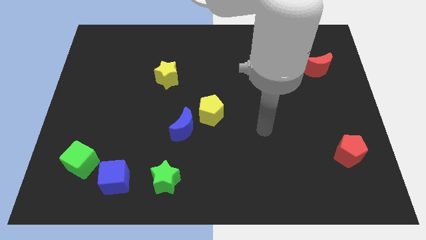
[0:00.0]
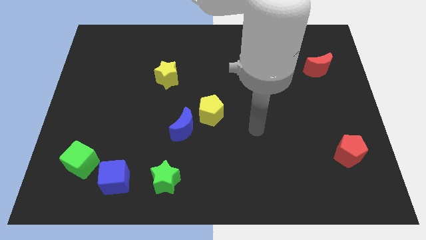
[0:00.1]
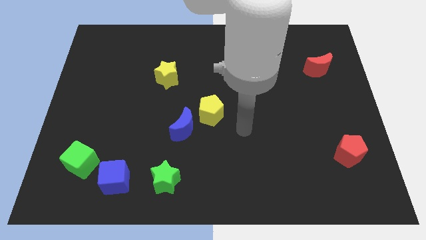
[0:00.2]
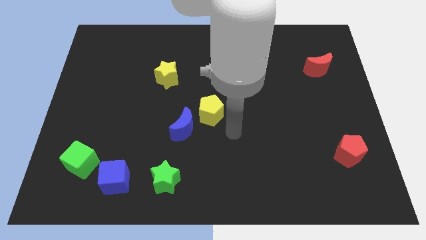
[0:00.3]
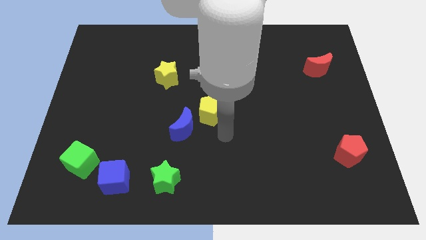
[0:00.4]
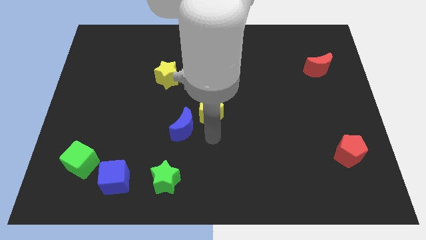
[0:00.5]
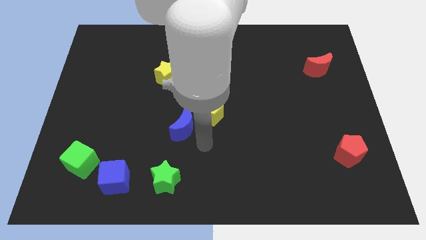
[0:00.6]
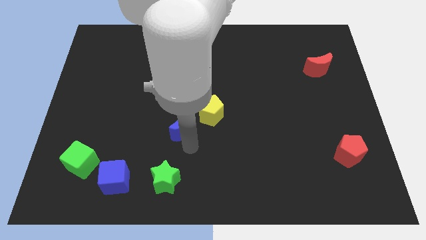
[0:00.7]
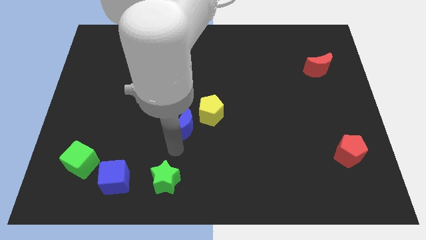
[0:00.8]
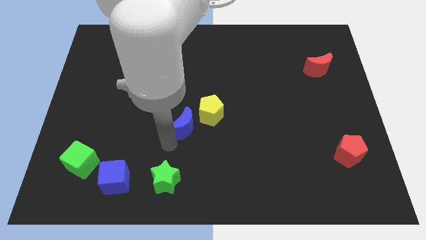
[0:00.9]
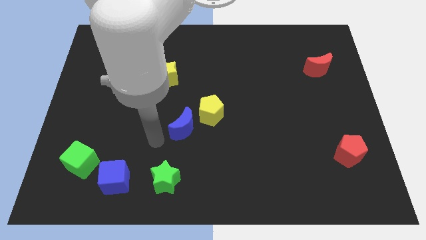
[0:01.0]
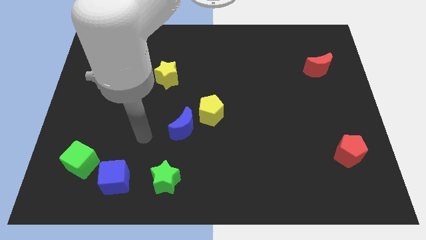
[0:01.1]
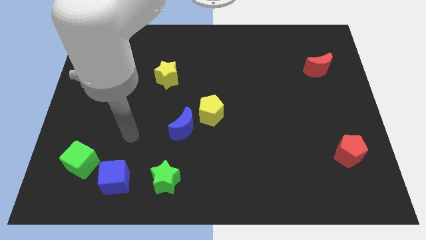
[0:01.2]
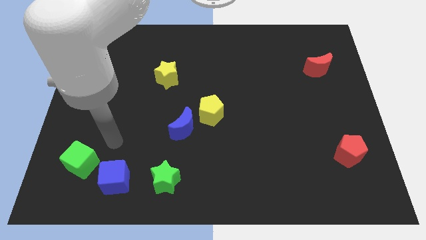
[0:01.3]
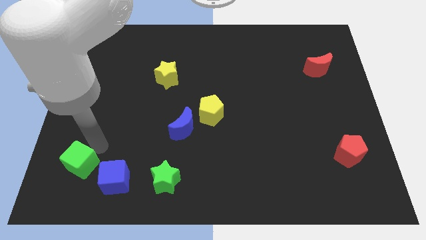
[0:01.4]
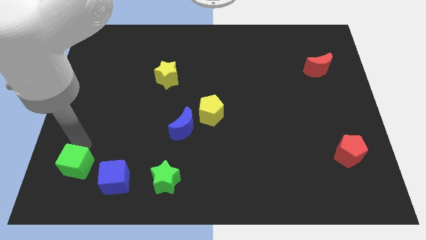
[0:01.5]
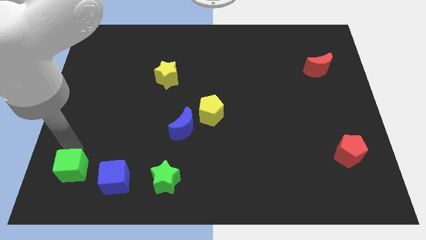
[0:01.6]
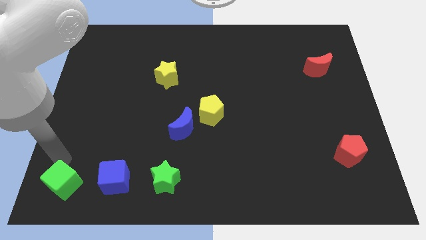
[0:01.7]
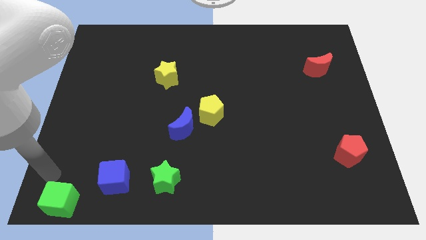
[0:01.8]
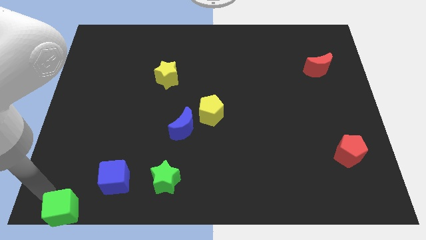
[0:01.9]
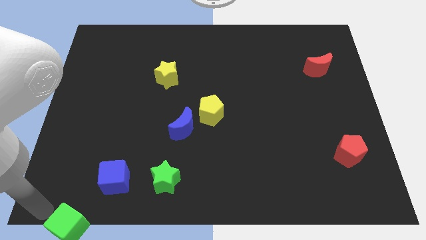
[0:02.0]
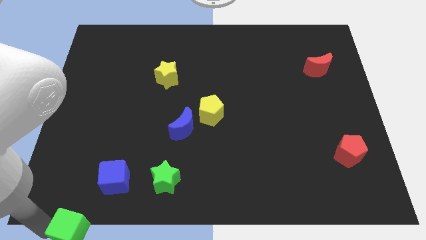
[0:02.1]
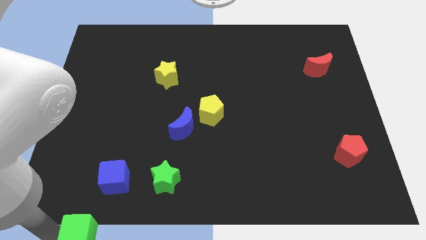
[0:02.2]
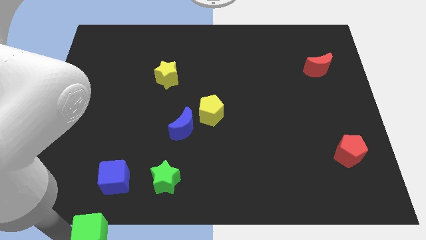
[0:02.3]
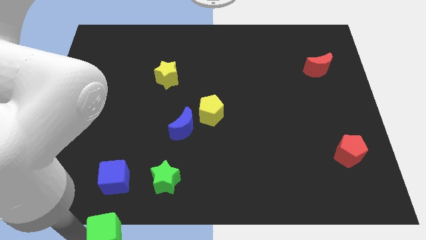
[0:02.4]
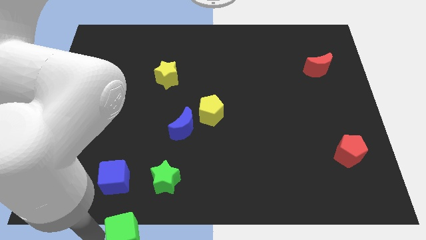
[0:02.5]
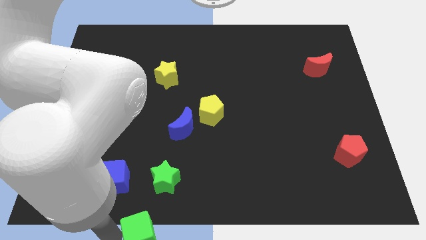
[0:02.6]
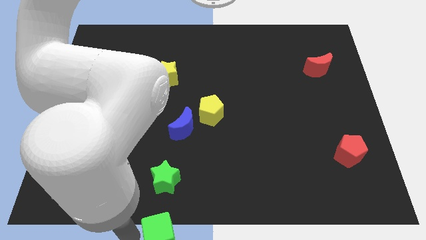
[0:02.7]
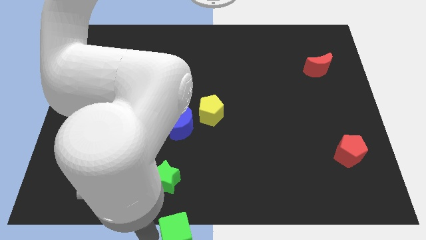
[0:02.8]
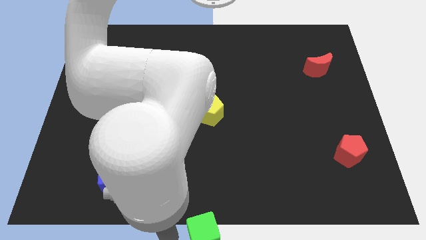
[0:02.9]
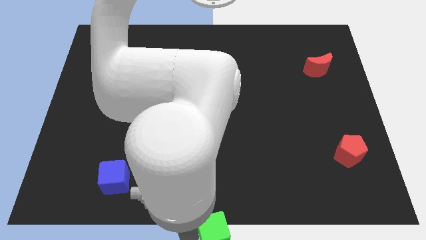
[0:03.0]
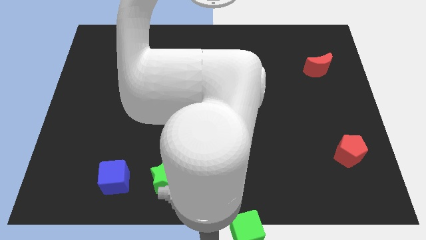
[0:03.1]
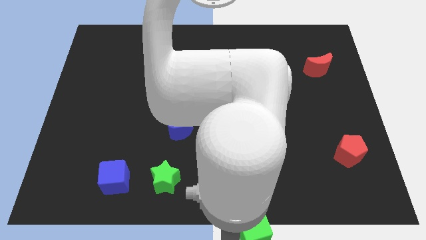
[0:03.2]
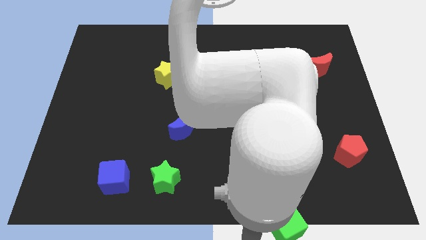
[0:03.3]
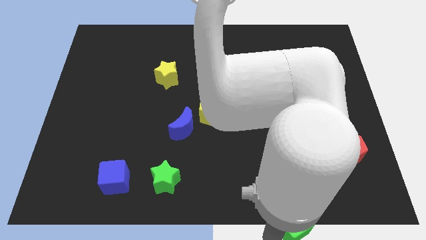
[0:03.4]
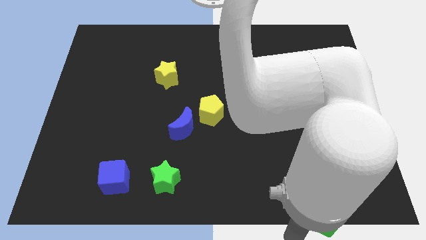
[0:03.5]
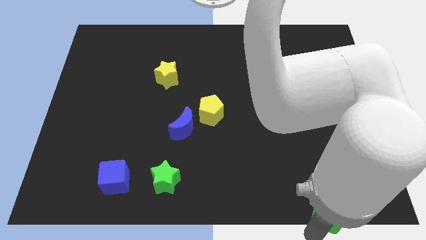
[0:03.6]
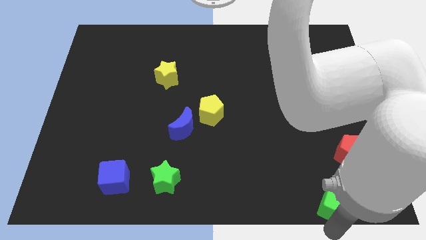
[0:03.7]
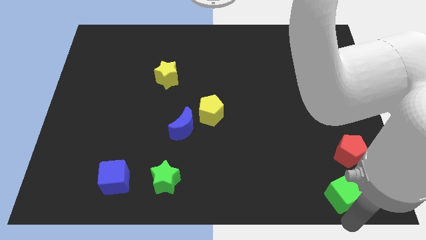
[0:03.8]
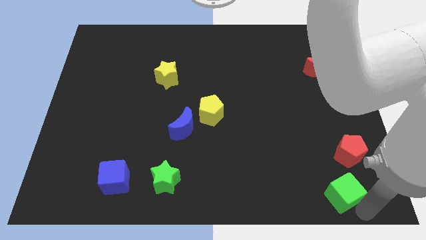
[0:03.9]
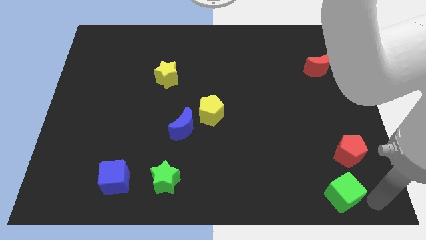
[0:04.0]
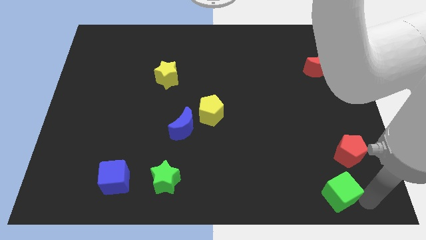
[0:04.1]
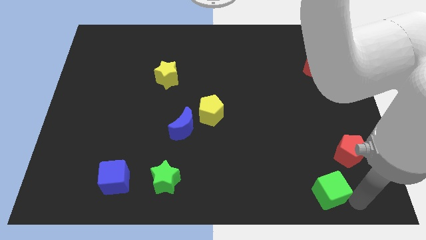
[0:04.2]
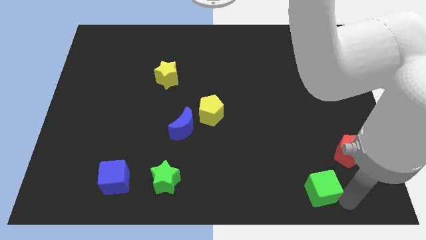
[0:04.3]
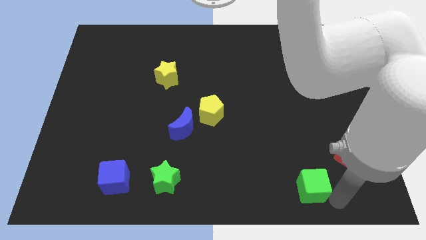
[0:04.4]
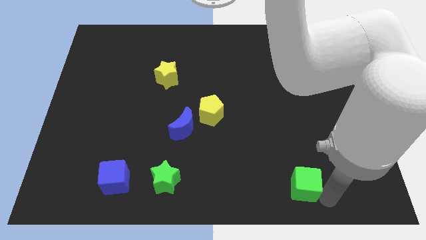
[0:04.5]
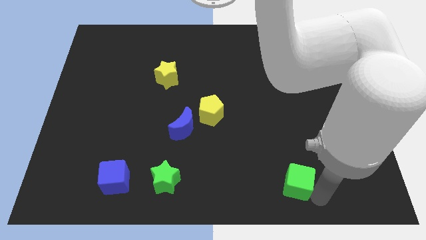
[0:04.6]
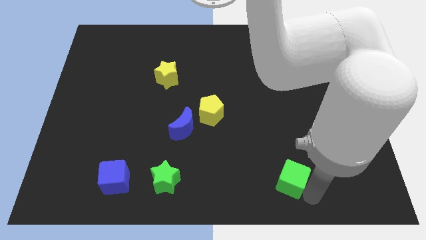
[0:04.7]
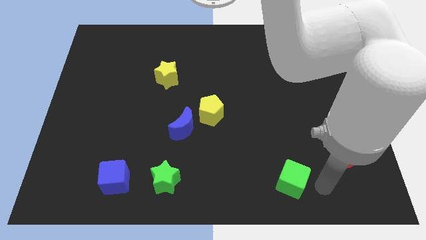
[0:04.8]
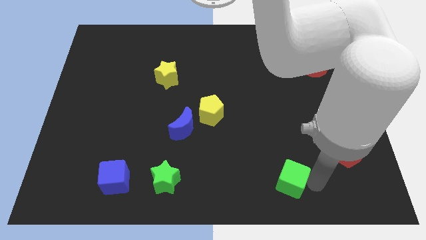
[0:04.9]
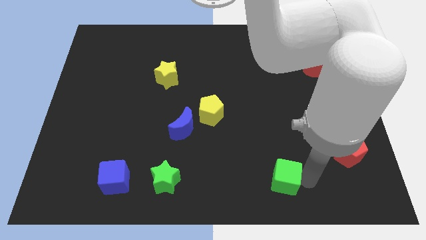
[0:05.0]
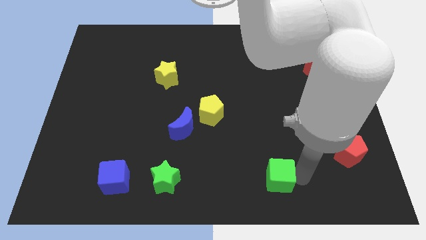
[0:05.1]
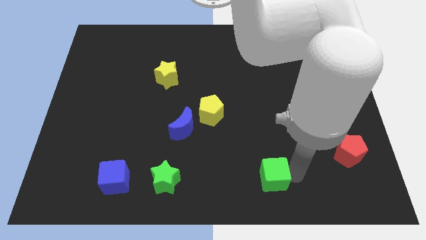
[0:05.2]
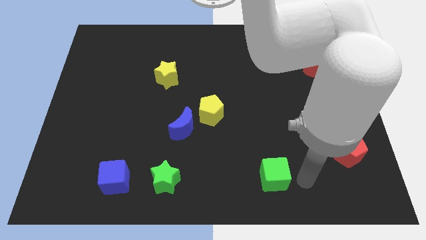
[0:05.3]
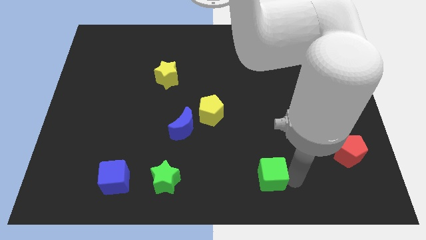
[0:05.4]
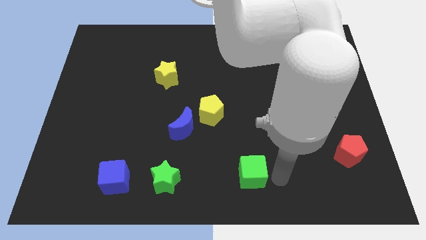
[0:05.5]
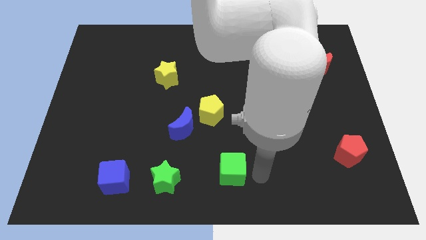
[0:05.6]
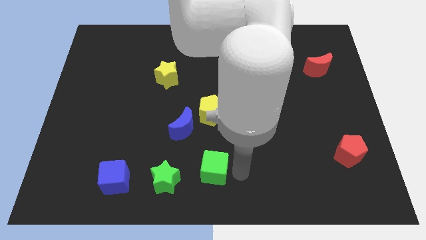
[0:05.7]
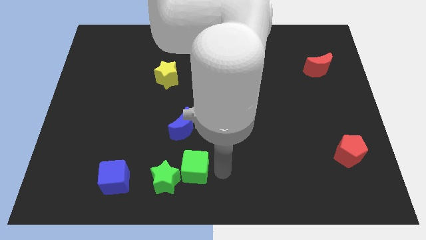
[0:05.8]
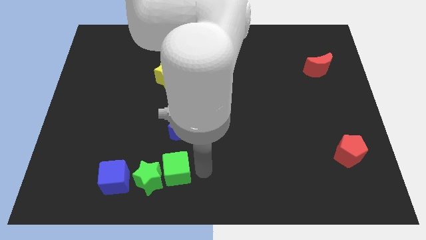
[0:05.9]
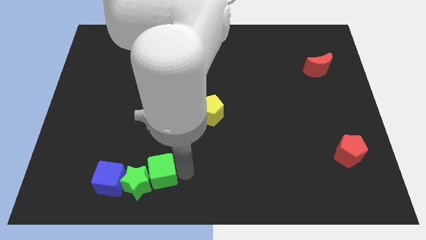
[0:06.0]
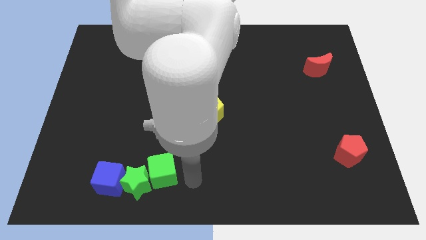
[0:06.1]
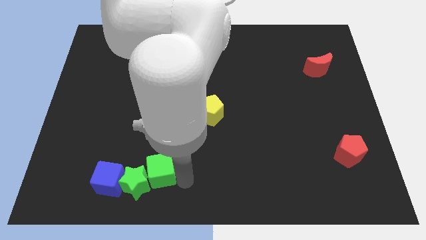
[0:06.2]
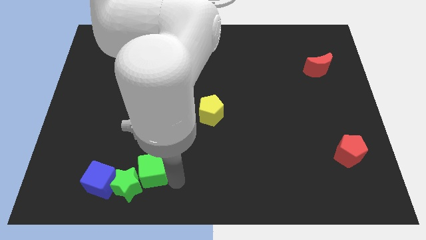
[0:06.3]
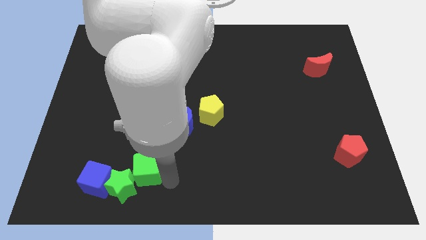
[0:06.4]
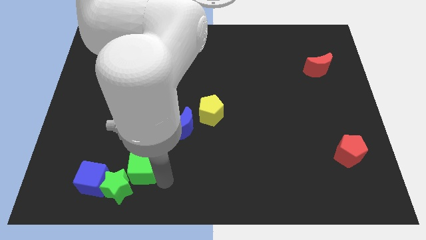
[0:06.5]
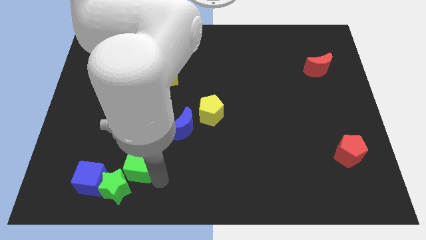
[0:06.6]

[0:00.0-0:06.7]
put the green cube diagonally down and to the left of the blue moon
